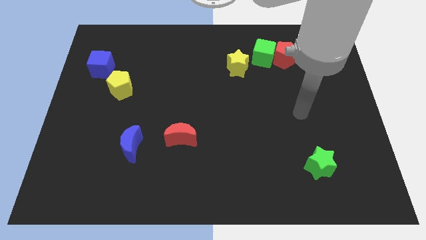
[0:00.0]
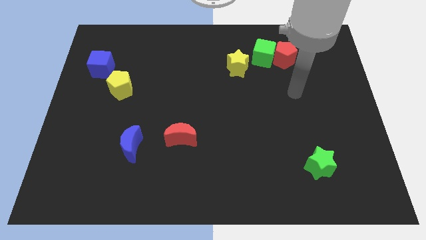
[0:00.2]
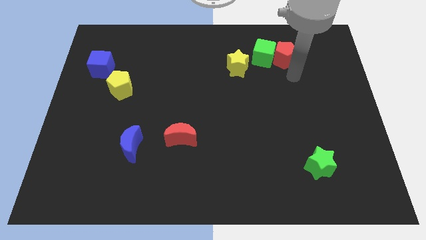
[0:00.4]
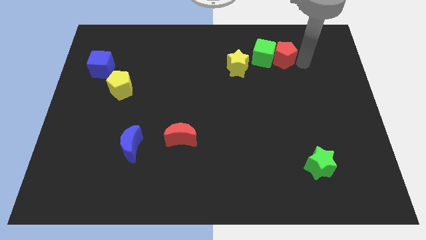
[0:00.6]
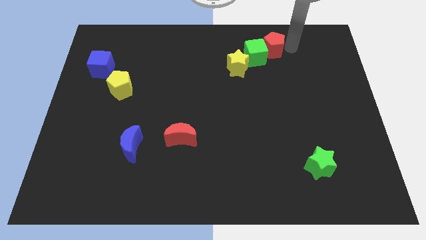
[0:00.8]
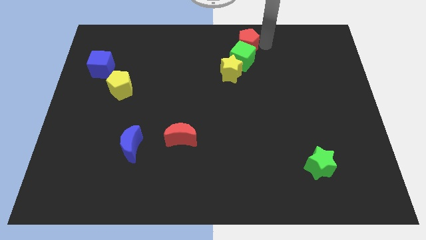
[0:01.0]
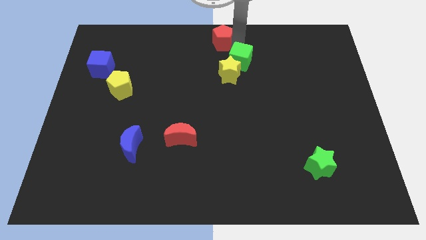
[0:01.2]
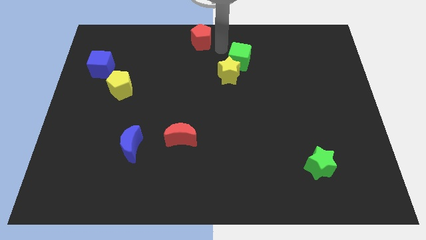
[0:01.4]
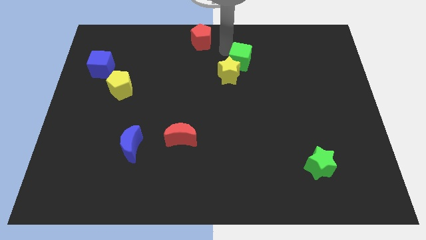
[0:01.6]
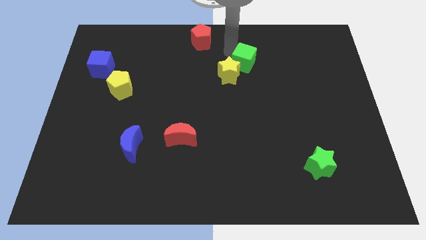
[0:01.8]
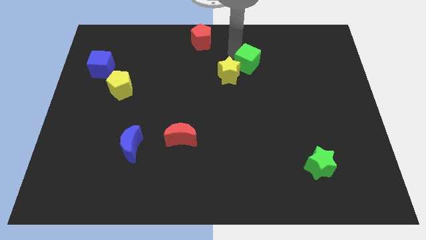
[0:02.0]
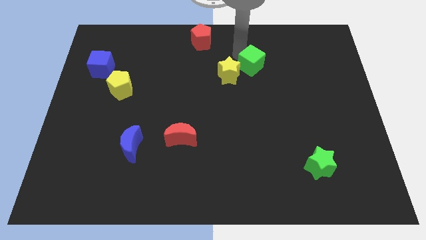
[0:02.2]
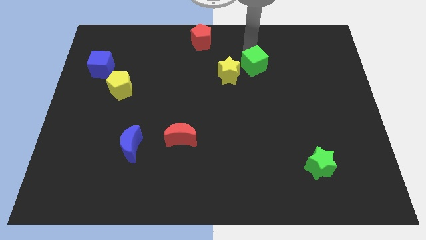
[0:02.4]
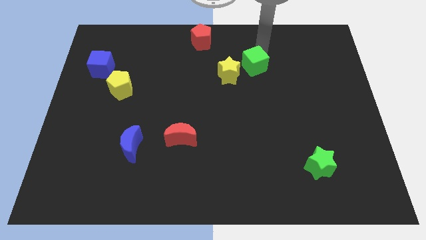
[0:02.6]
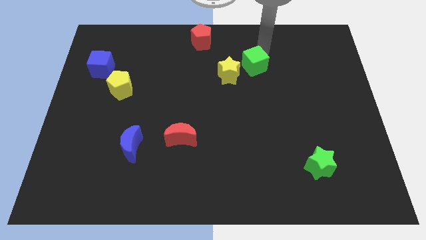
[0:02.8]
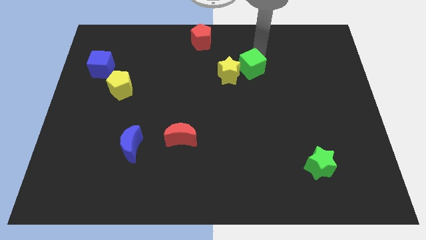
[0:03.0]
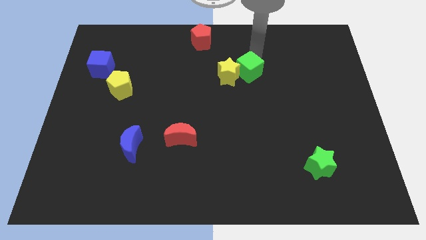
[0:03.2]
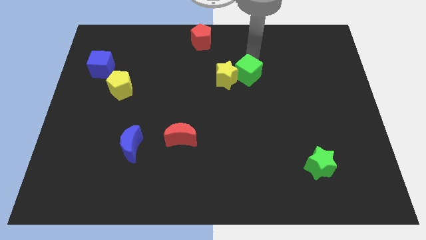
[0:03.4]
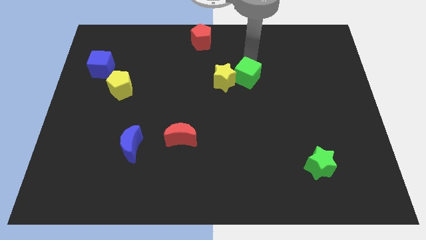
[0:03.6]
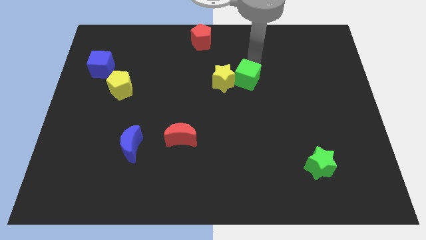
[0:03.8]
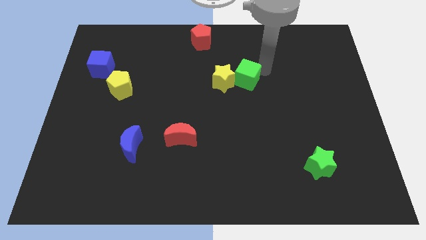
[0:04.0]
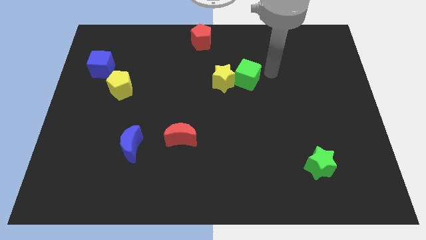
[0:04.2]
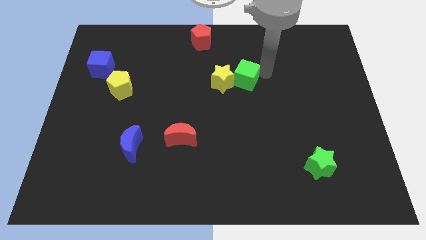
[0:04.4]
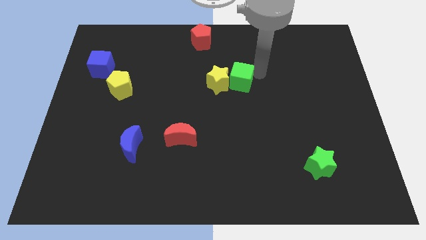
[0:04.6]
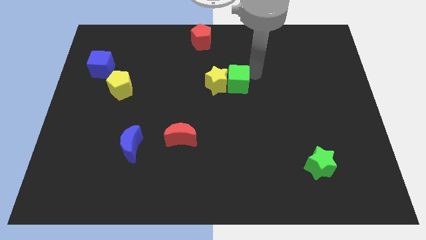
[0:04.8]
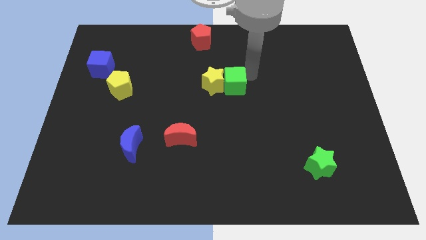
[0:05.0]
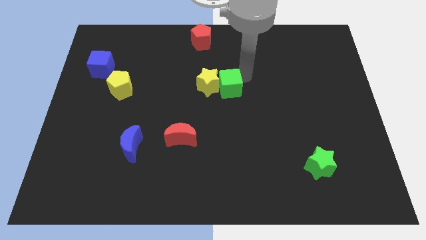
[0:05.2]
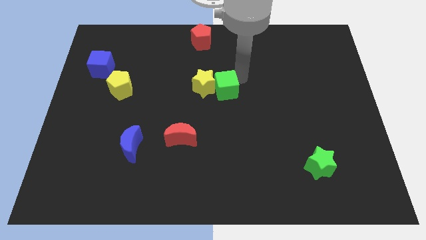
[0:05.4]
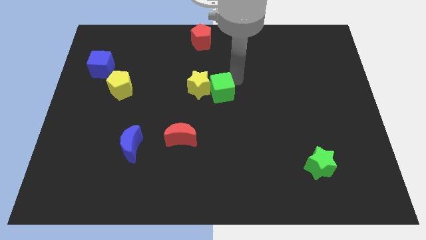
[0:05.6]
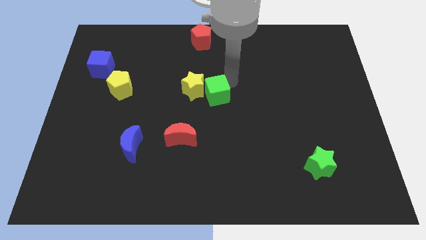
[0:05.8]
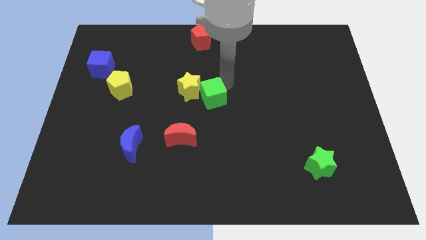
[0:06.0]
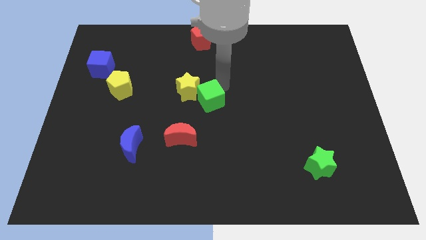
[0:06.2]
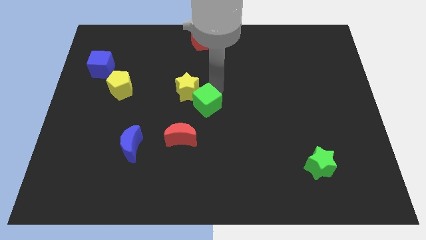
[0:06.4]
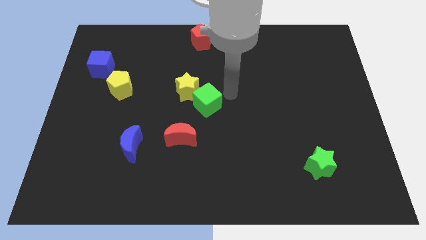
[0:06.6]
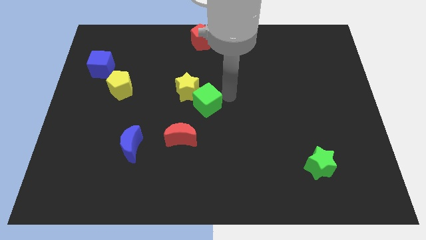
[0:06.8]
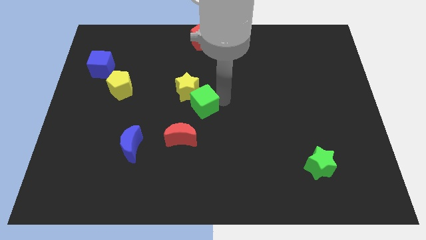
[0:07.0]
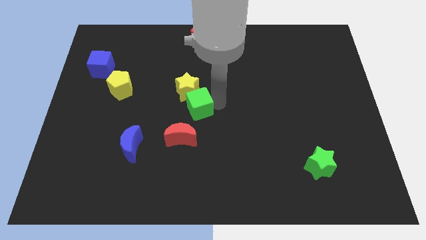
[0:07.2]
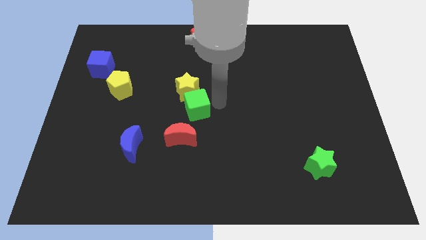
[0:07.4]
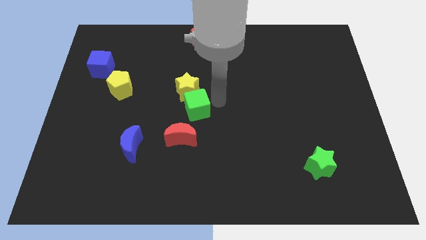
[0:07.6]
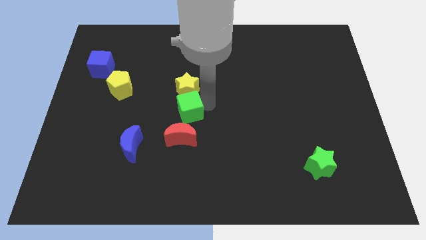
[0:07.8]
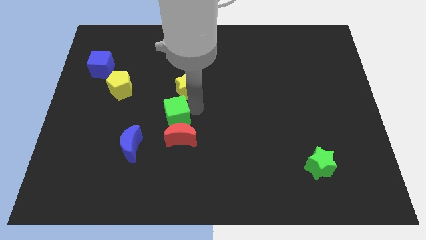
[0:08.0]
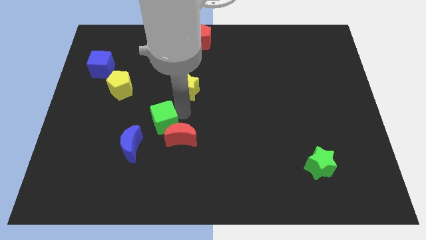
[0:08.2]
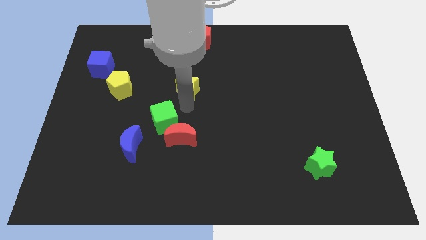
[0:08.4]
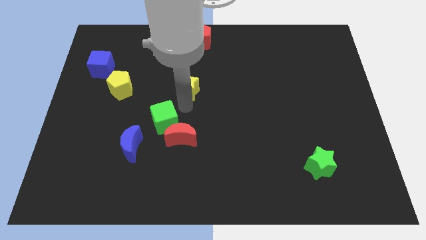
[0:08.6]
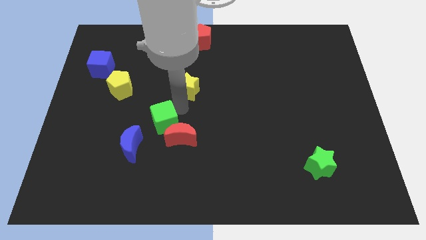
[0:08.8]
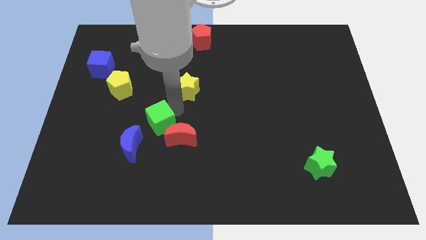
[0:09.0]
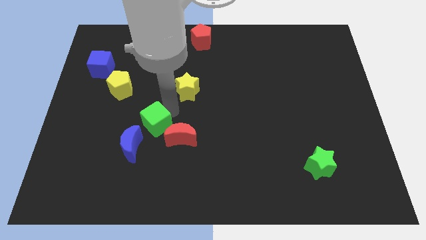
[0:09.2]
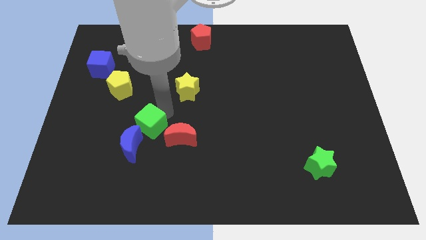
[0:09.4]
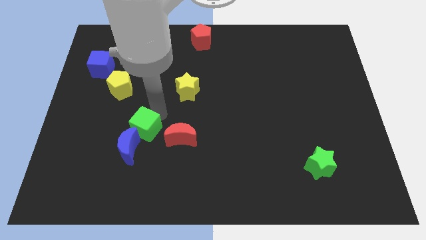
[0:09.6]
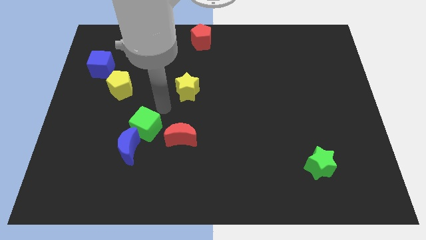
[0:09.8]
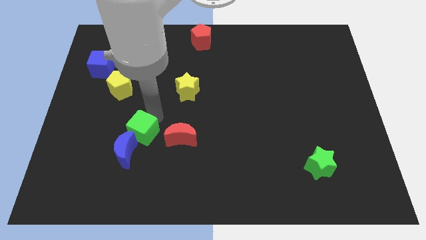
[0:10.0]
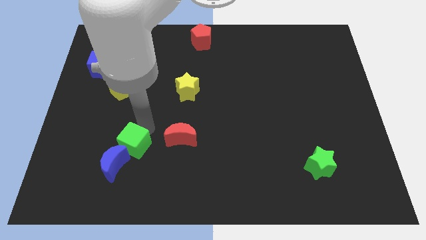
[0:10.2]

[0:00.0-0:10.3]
slide the green cube close to the blue moon

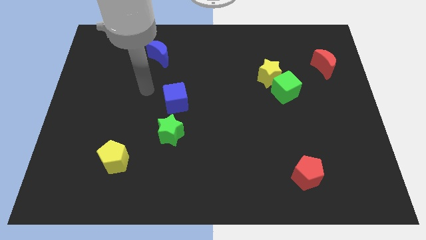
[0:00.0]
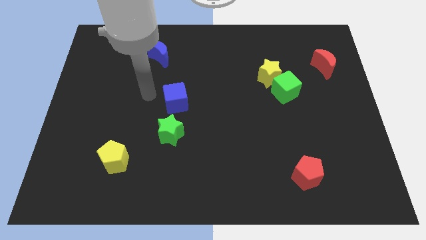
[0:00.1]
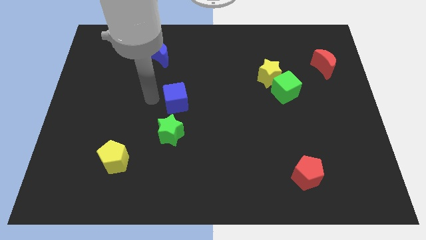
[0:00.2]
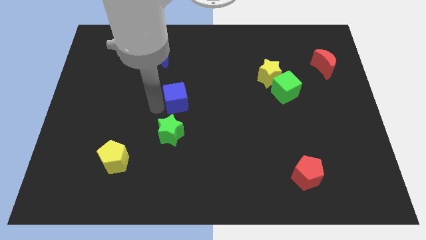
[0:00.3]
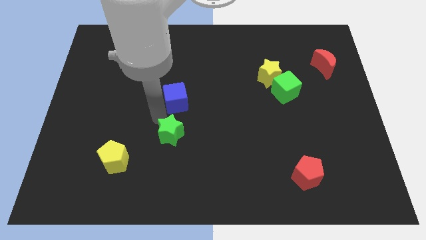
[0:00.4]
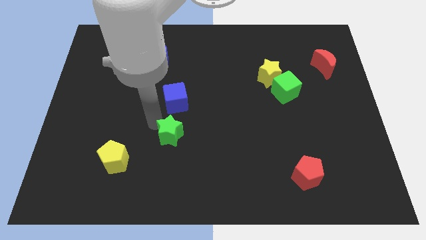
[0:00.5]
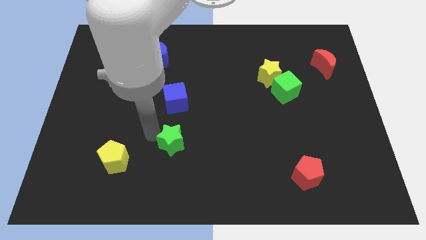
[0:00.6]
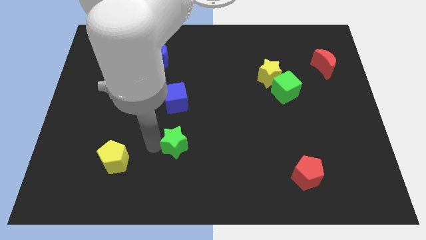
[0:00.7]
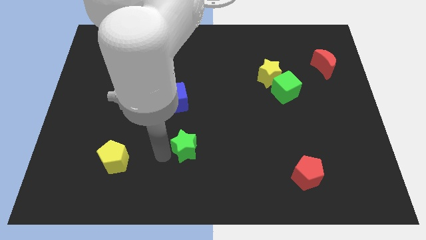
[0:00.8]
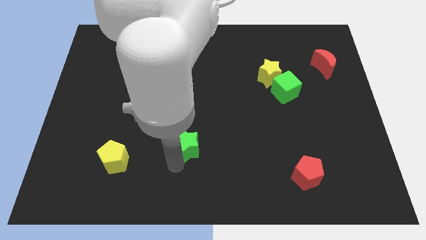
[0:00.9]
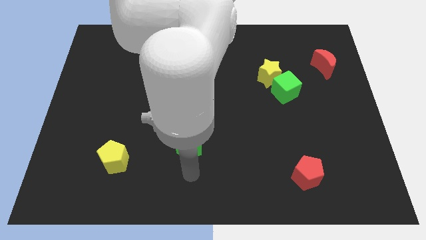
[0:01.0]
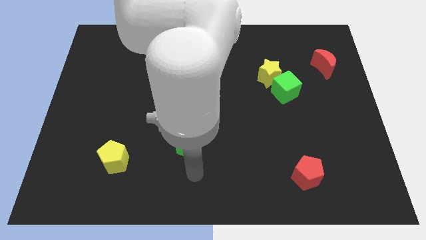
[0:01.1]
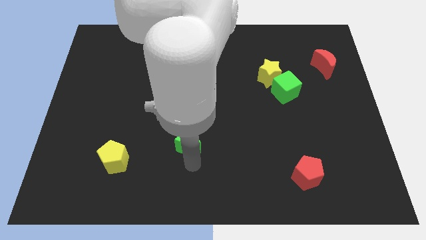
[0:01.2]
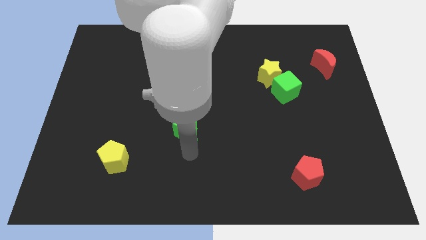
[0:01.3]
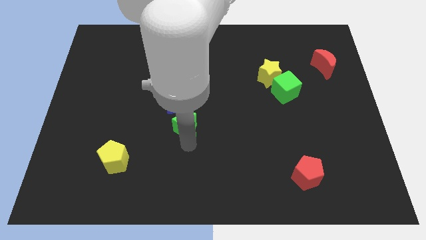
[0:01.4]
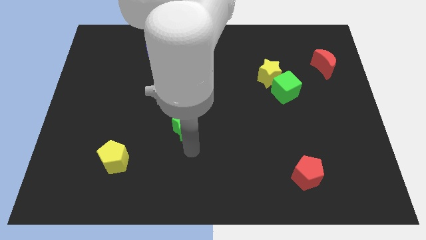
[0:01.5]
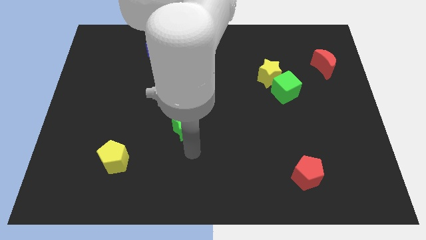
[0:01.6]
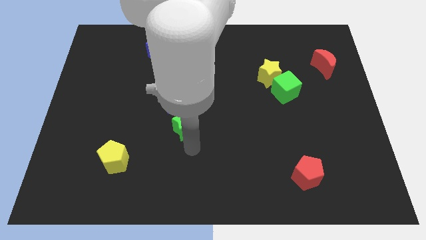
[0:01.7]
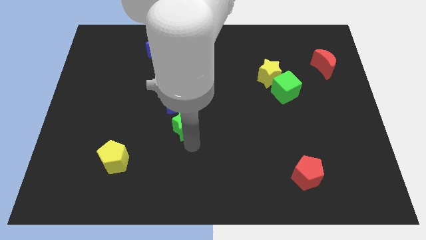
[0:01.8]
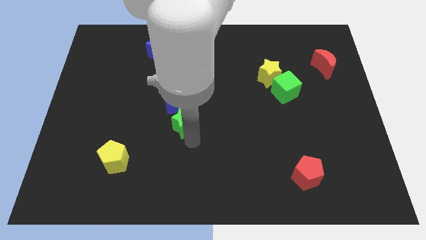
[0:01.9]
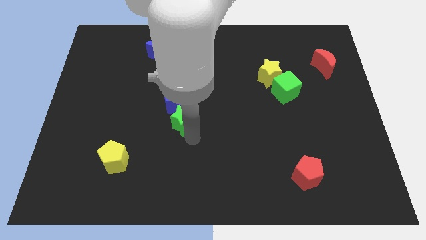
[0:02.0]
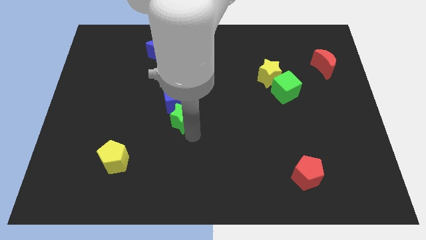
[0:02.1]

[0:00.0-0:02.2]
slide the green star to the blue cube
